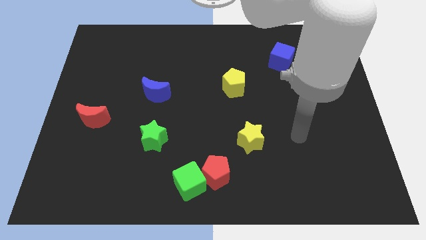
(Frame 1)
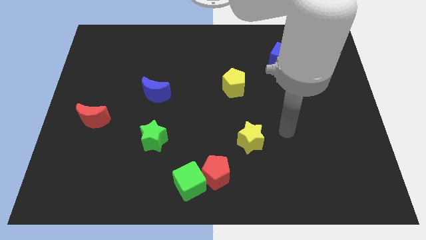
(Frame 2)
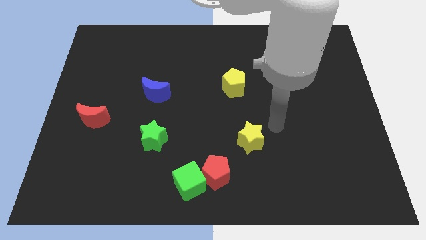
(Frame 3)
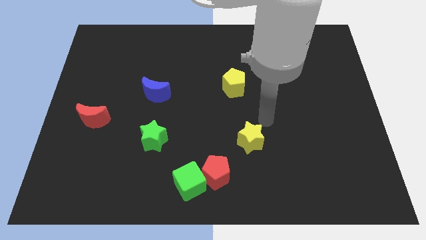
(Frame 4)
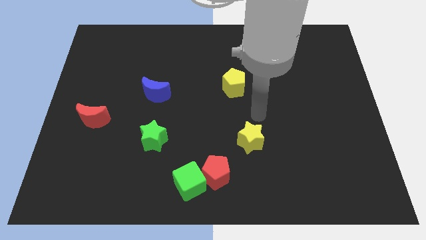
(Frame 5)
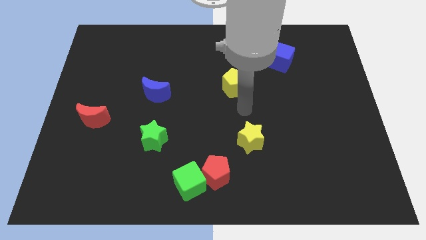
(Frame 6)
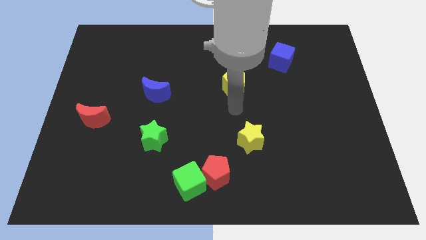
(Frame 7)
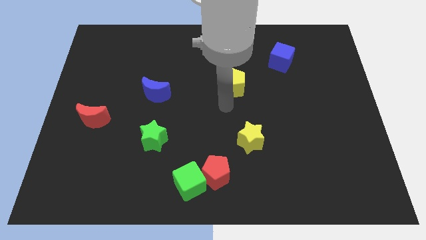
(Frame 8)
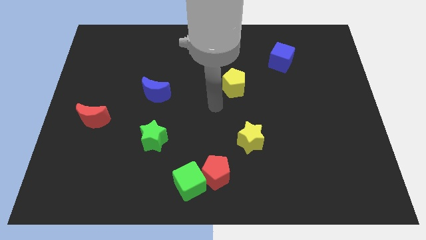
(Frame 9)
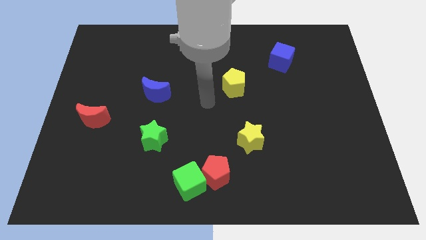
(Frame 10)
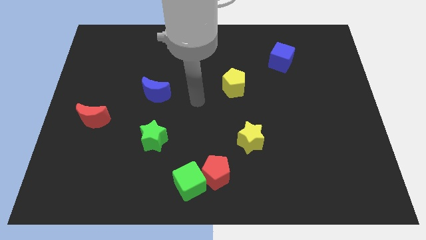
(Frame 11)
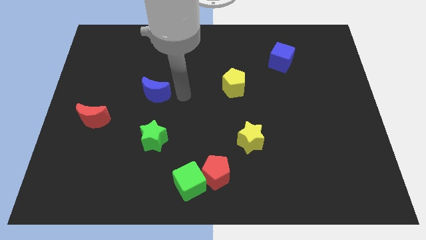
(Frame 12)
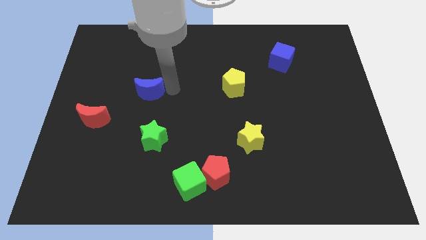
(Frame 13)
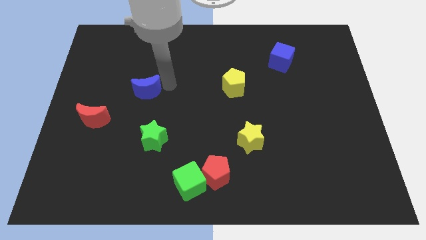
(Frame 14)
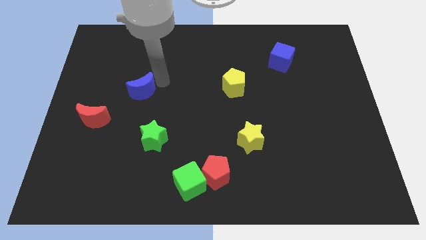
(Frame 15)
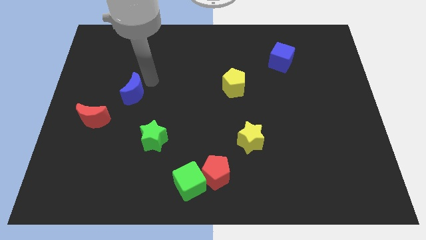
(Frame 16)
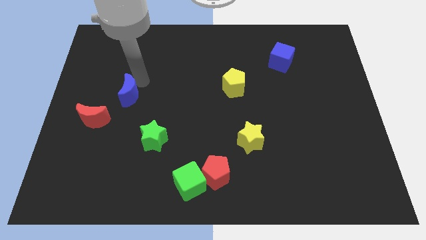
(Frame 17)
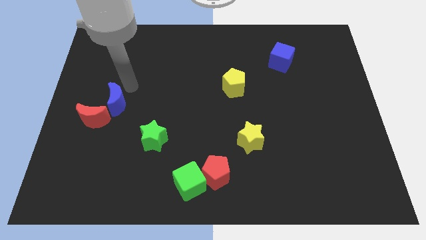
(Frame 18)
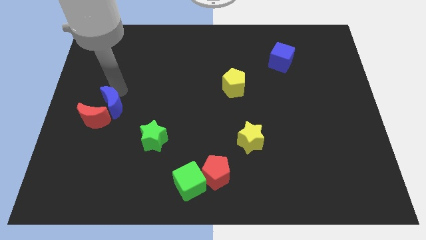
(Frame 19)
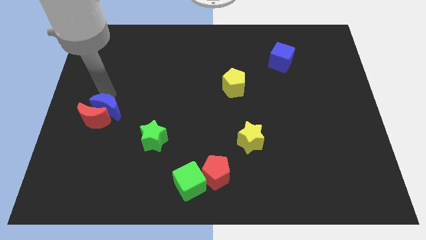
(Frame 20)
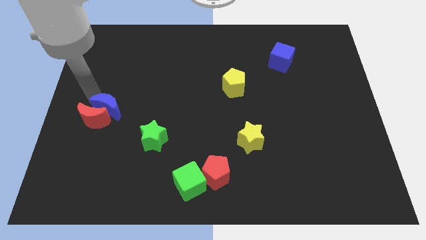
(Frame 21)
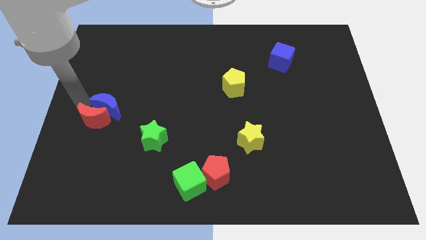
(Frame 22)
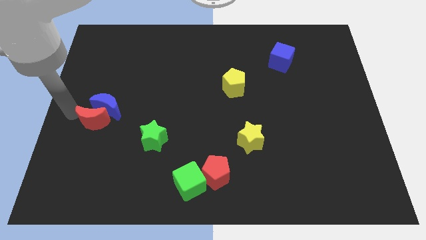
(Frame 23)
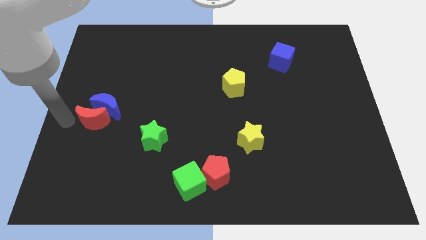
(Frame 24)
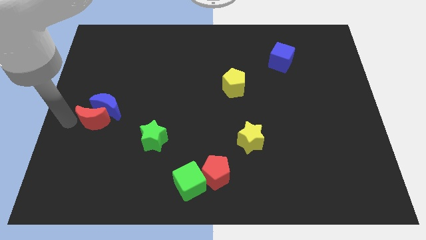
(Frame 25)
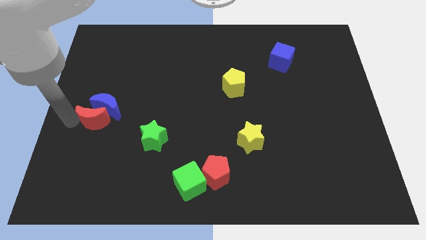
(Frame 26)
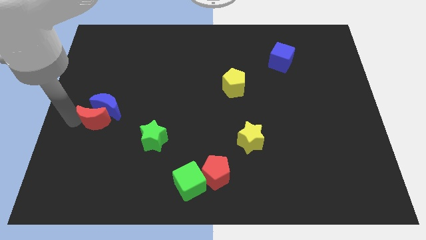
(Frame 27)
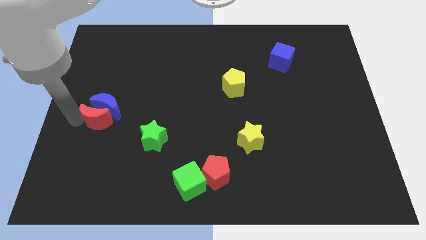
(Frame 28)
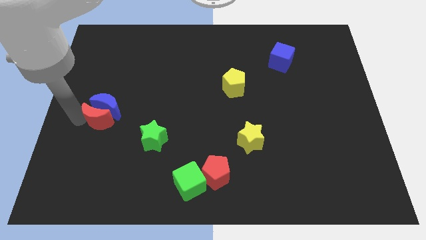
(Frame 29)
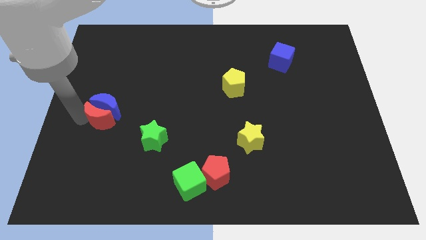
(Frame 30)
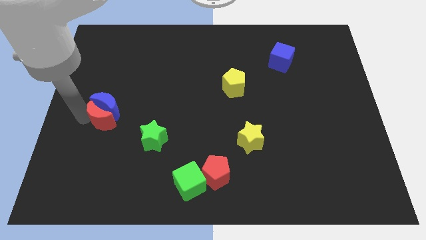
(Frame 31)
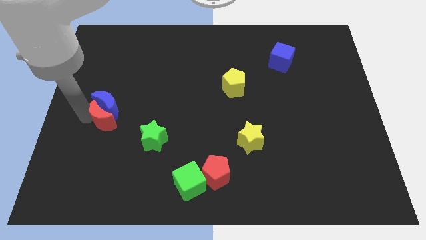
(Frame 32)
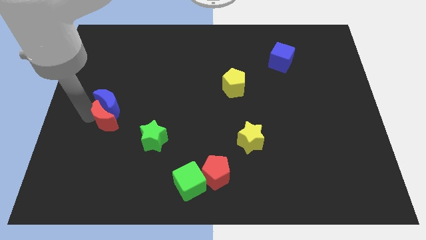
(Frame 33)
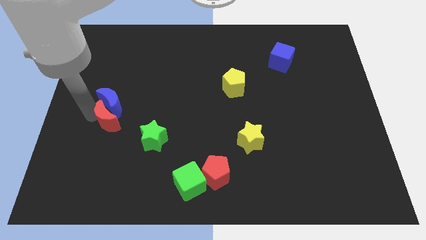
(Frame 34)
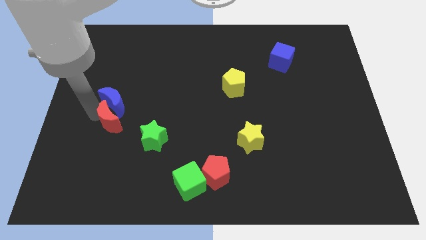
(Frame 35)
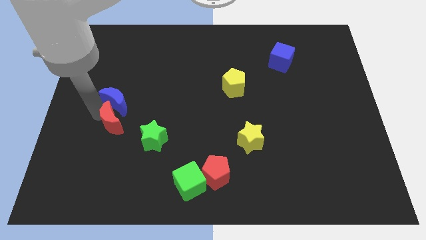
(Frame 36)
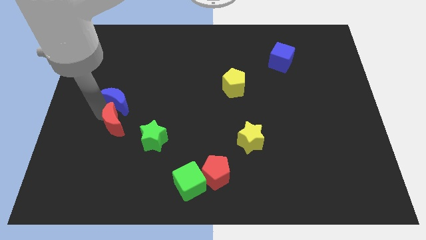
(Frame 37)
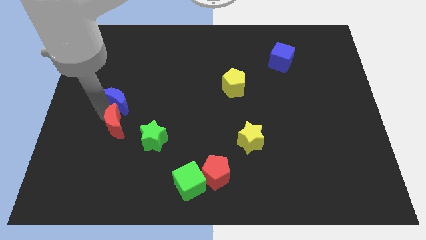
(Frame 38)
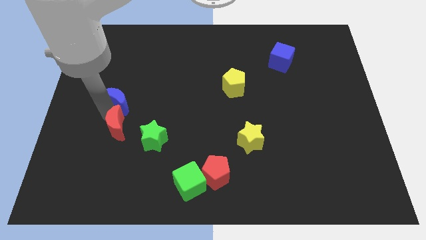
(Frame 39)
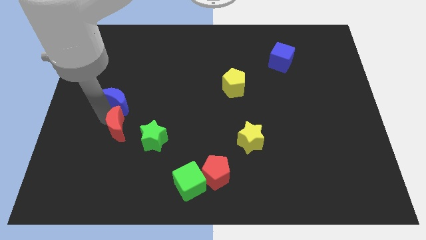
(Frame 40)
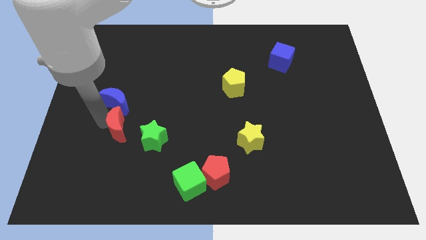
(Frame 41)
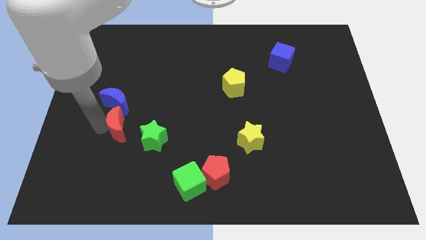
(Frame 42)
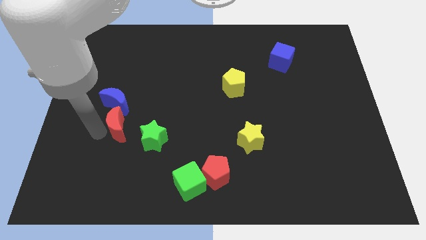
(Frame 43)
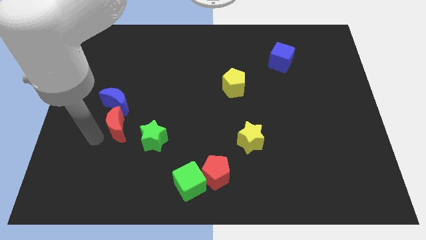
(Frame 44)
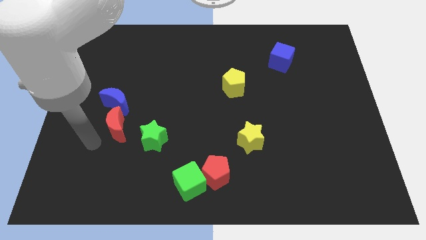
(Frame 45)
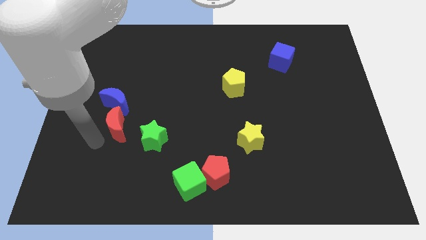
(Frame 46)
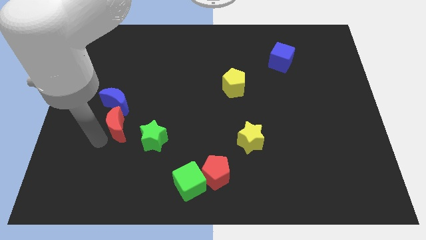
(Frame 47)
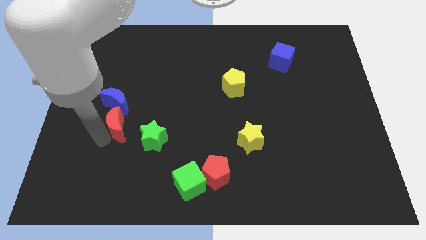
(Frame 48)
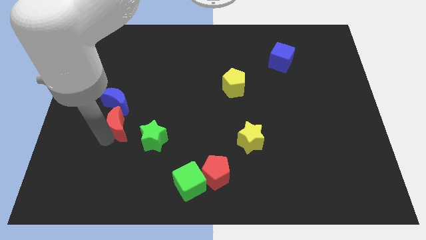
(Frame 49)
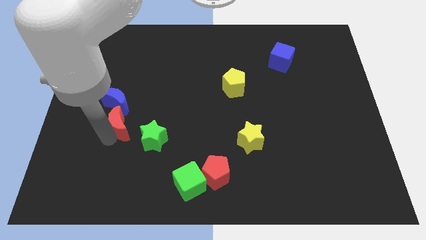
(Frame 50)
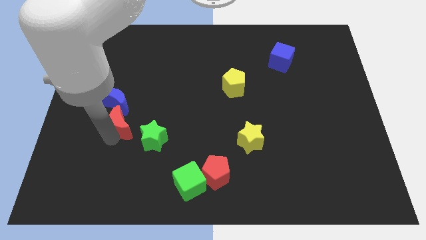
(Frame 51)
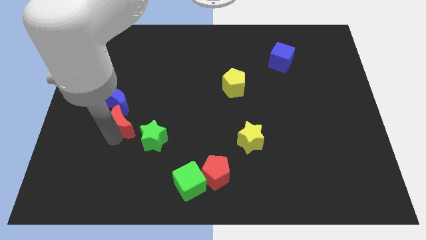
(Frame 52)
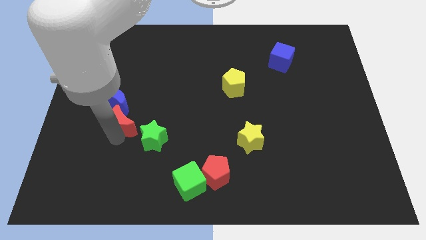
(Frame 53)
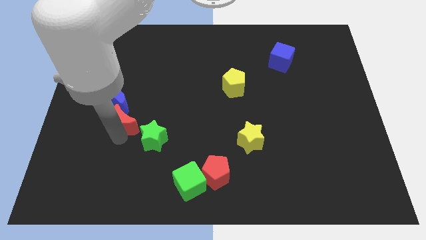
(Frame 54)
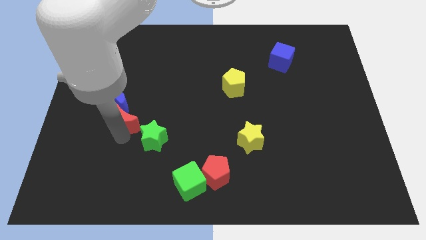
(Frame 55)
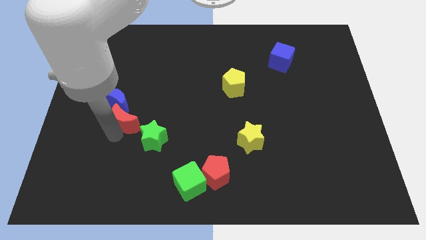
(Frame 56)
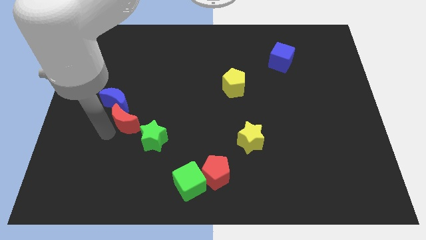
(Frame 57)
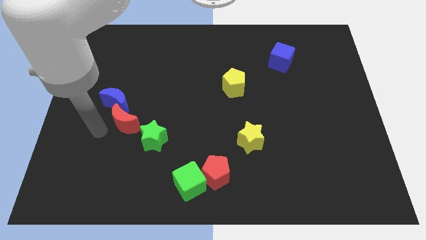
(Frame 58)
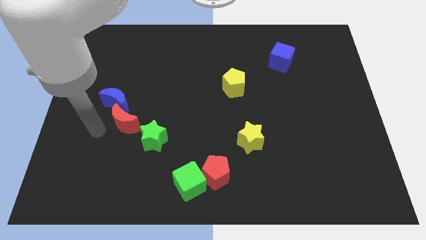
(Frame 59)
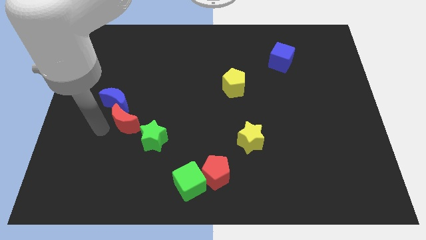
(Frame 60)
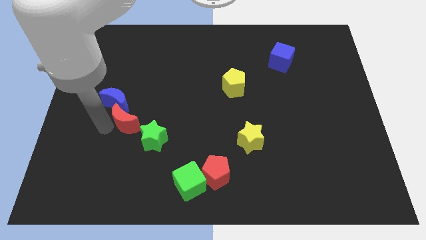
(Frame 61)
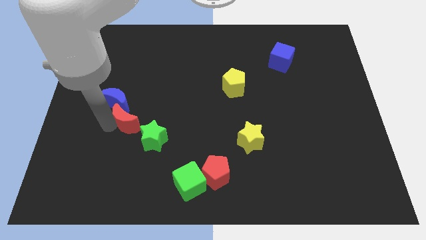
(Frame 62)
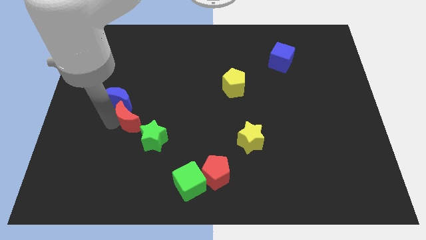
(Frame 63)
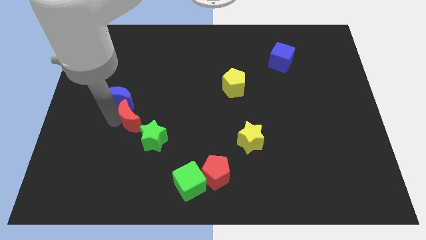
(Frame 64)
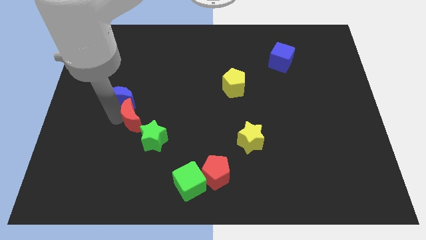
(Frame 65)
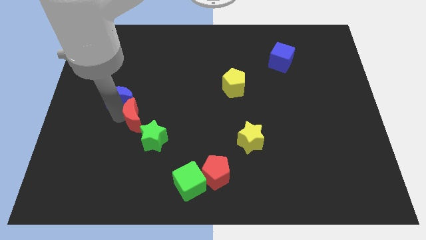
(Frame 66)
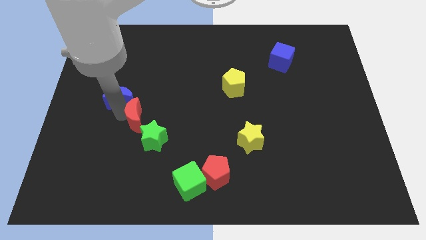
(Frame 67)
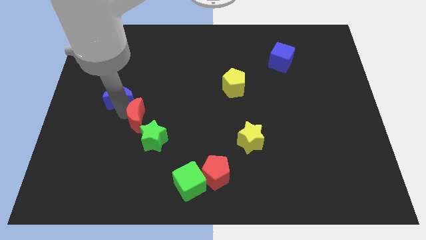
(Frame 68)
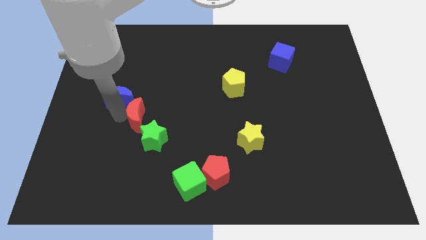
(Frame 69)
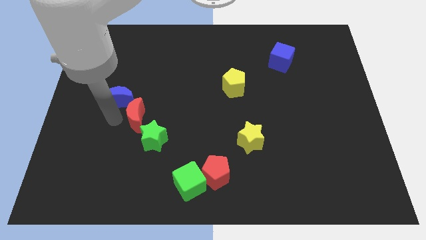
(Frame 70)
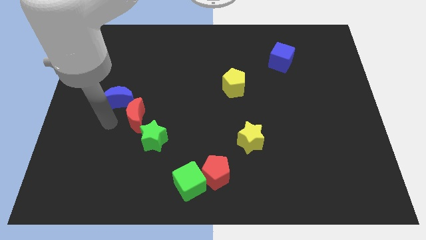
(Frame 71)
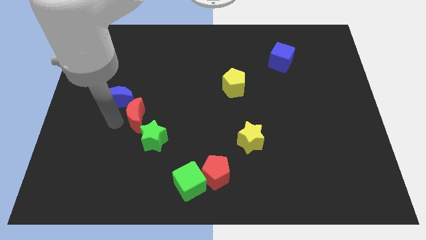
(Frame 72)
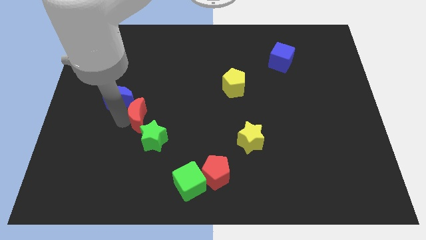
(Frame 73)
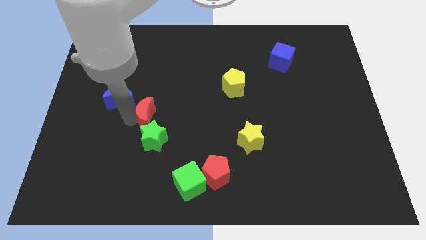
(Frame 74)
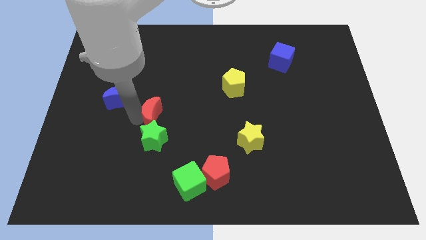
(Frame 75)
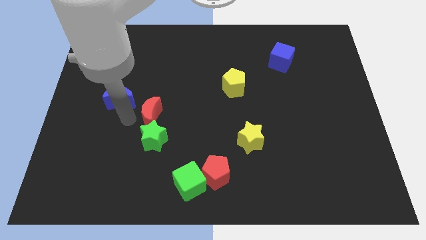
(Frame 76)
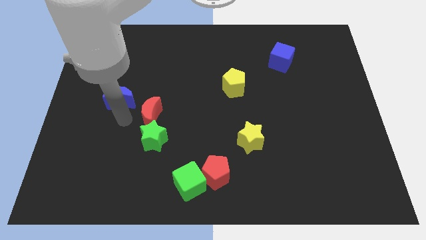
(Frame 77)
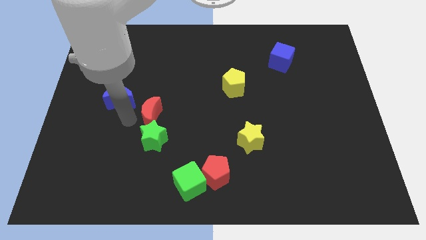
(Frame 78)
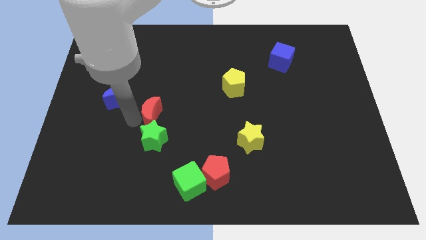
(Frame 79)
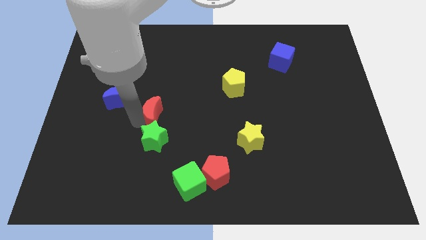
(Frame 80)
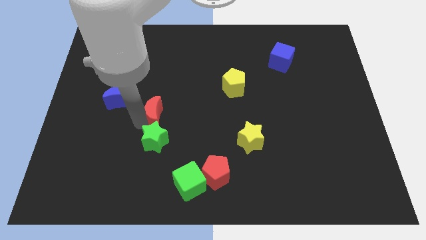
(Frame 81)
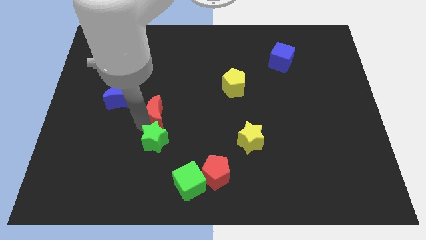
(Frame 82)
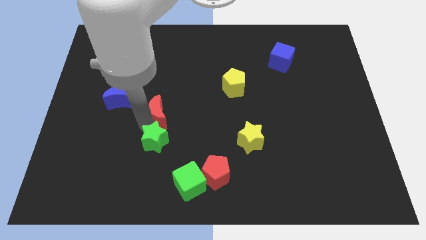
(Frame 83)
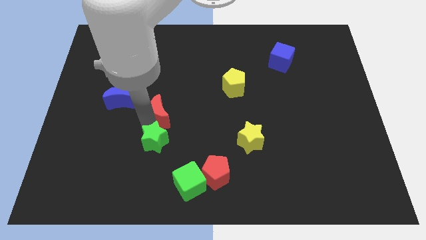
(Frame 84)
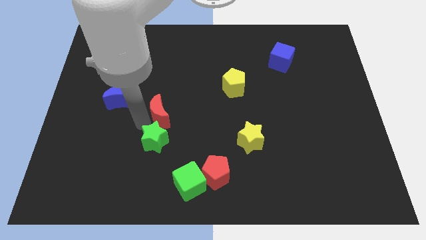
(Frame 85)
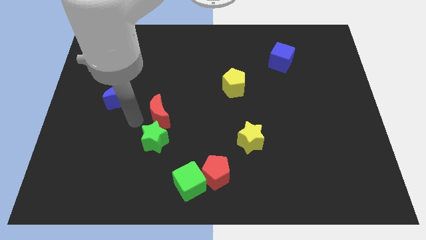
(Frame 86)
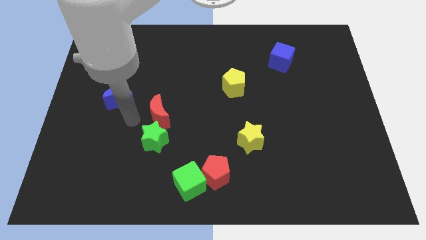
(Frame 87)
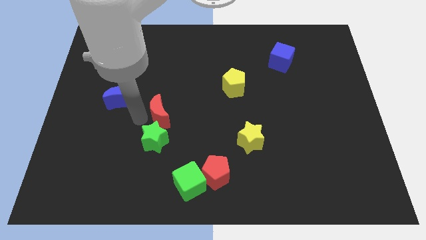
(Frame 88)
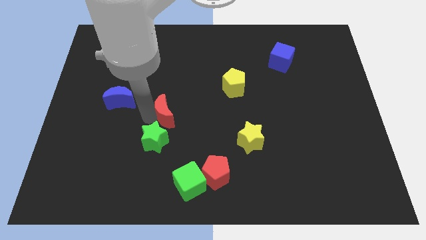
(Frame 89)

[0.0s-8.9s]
put the red moon to the center
